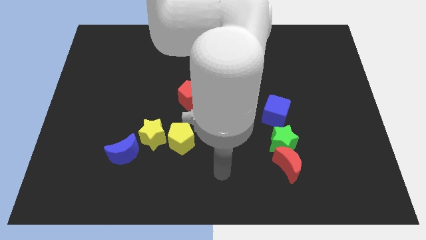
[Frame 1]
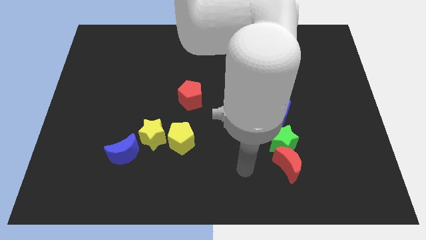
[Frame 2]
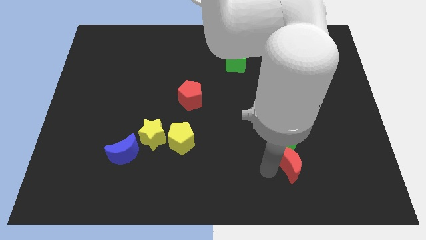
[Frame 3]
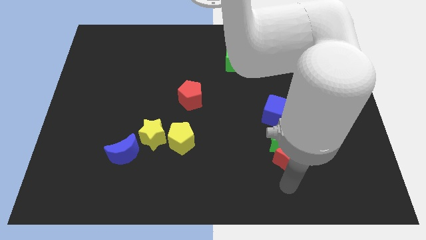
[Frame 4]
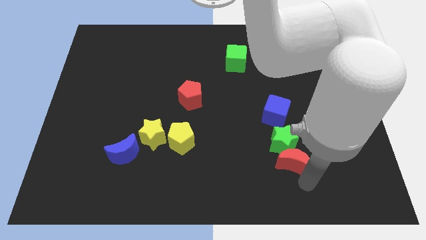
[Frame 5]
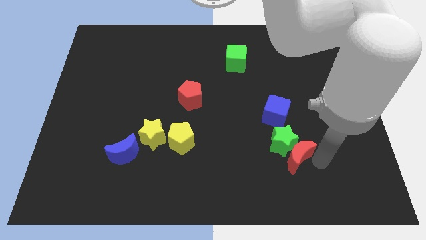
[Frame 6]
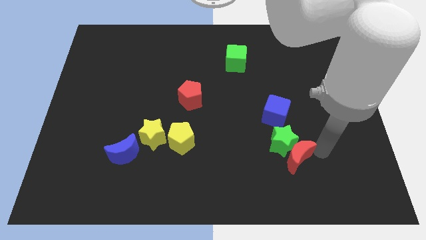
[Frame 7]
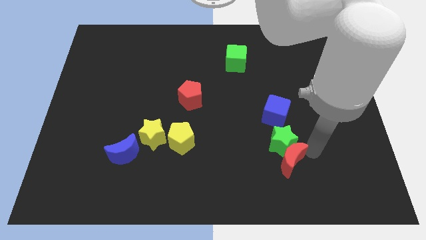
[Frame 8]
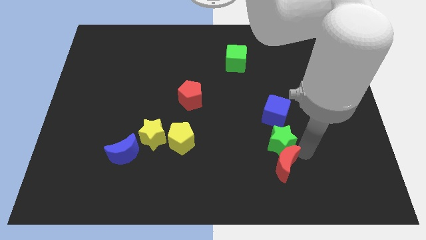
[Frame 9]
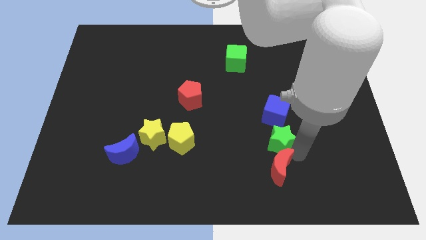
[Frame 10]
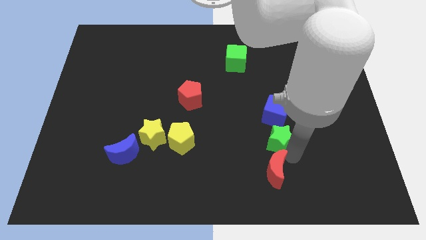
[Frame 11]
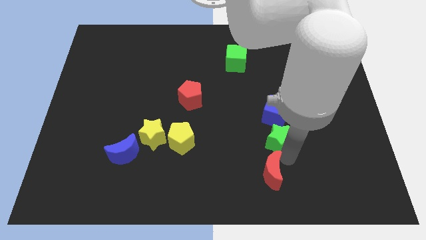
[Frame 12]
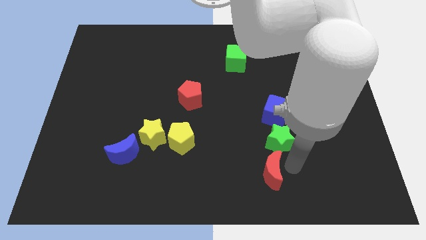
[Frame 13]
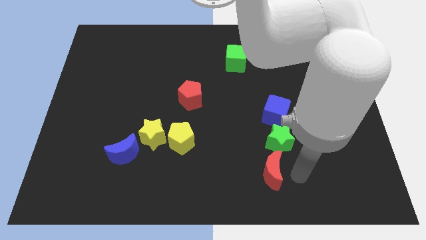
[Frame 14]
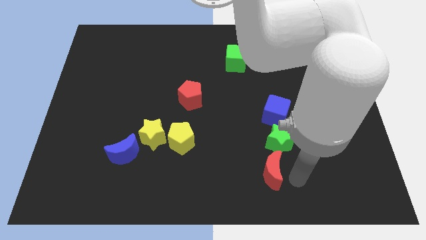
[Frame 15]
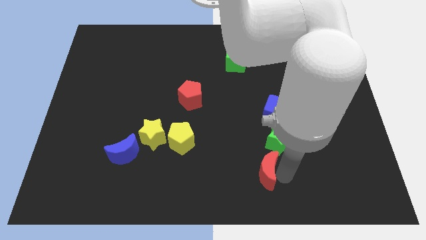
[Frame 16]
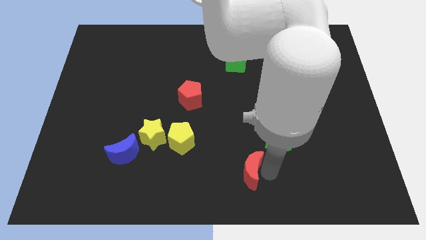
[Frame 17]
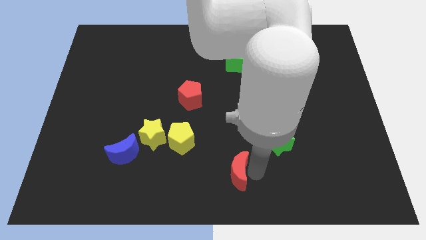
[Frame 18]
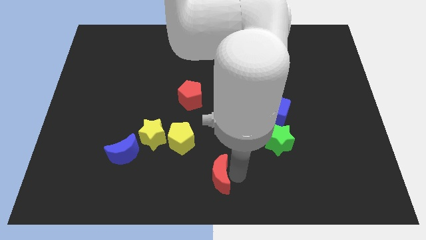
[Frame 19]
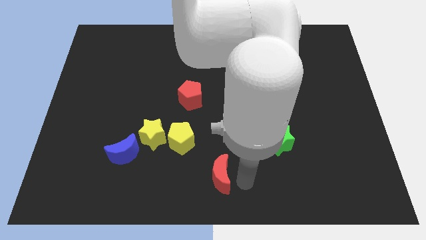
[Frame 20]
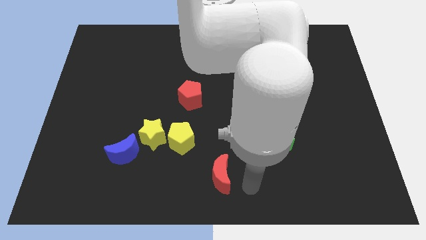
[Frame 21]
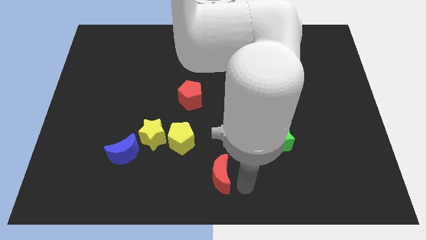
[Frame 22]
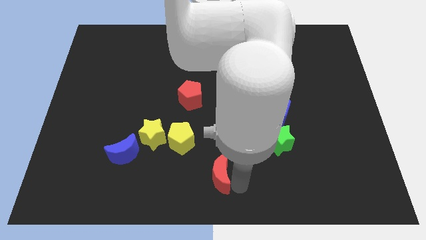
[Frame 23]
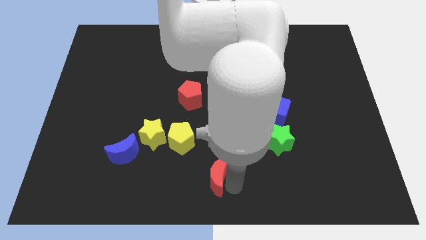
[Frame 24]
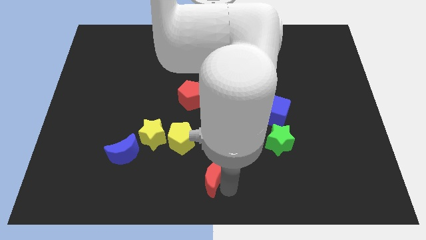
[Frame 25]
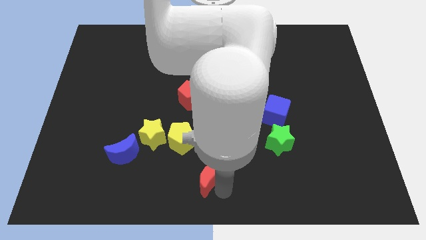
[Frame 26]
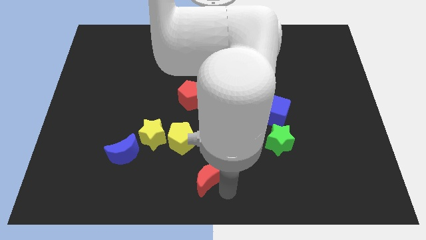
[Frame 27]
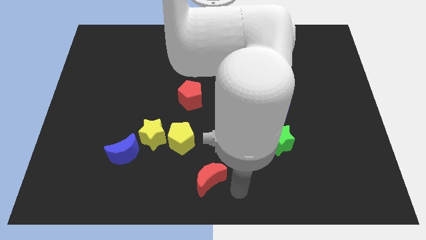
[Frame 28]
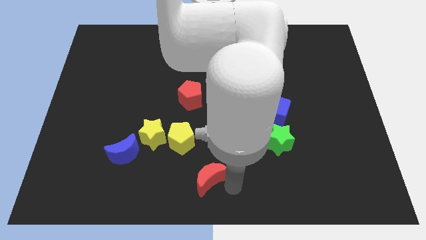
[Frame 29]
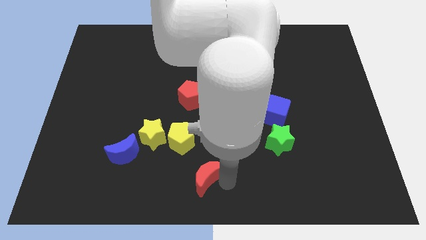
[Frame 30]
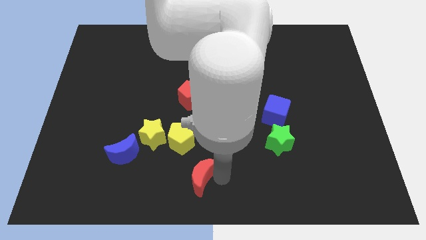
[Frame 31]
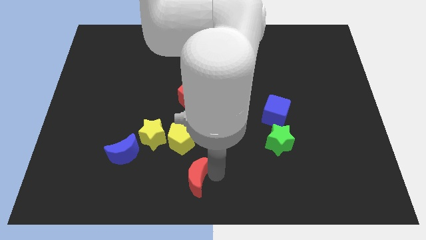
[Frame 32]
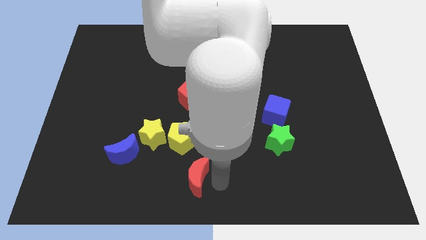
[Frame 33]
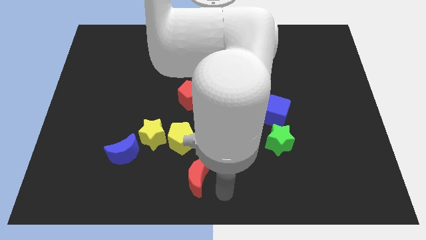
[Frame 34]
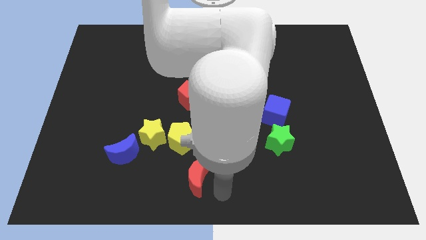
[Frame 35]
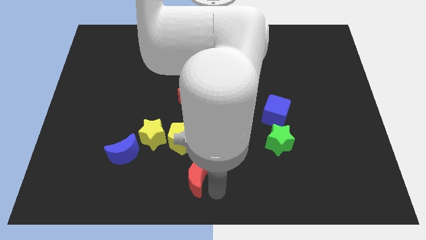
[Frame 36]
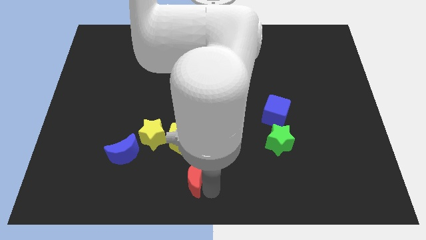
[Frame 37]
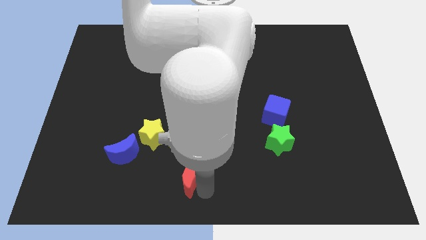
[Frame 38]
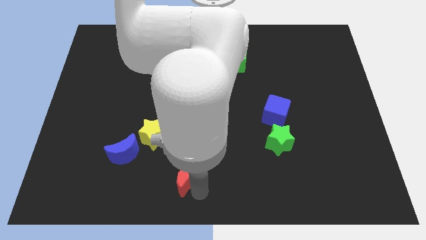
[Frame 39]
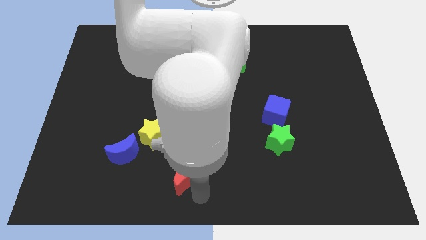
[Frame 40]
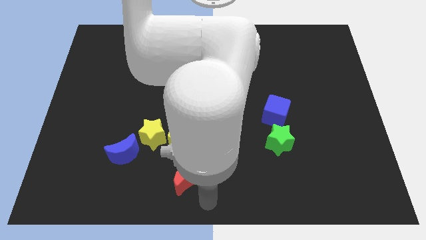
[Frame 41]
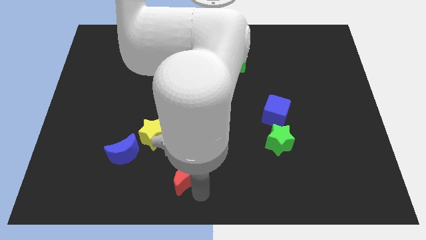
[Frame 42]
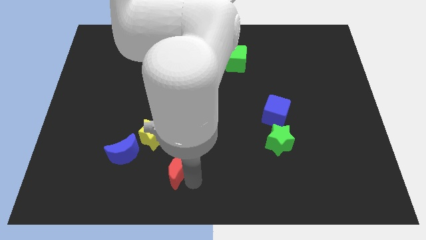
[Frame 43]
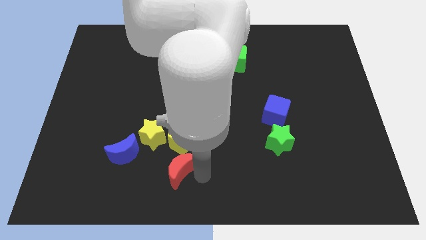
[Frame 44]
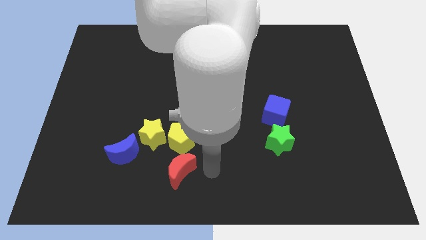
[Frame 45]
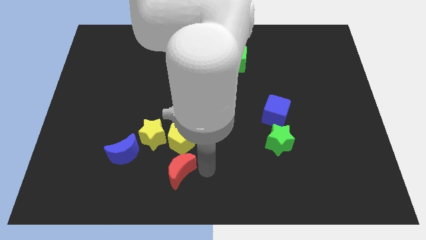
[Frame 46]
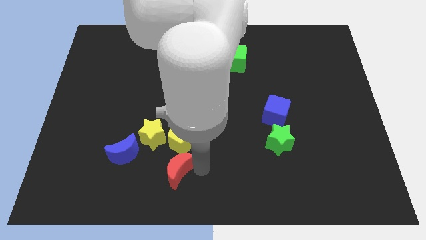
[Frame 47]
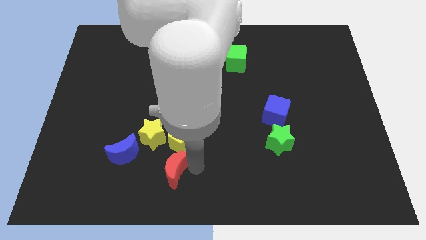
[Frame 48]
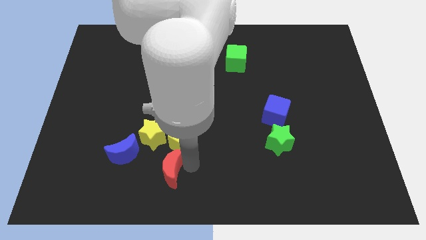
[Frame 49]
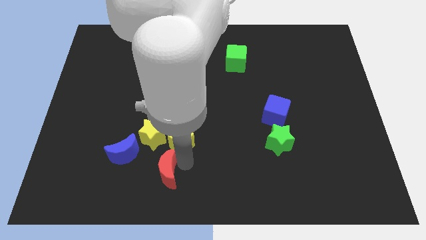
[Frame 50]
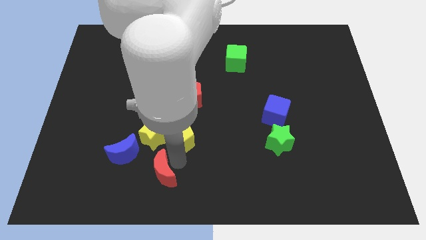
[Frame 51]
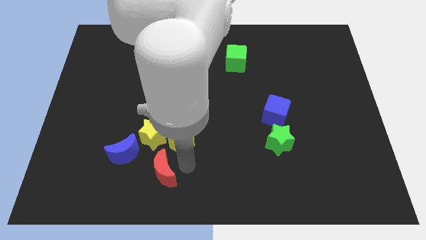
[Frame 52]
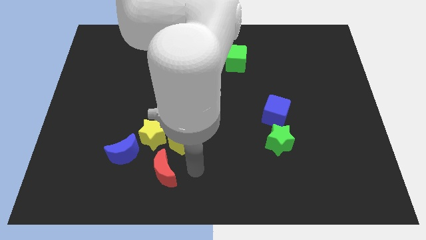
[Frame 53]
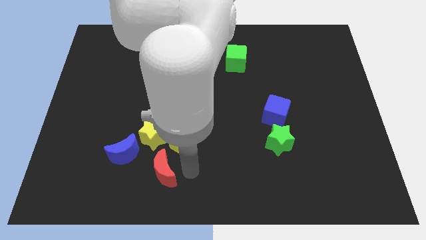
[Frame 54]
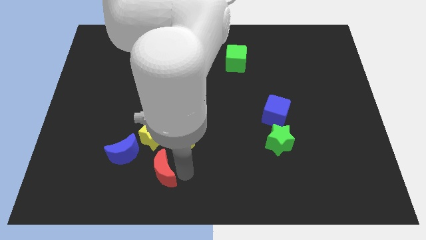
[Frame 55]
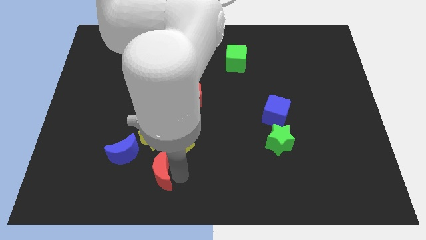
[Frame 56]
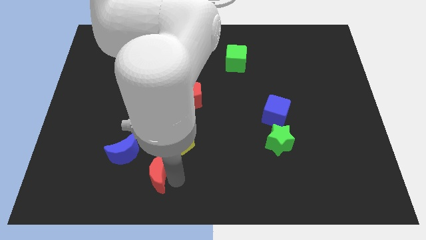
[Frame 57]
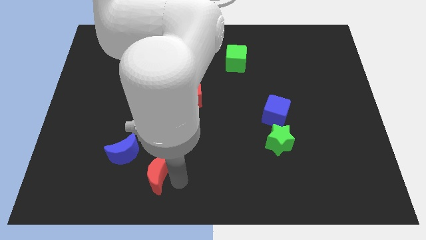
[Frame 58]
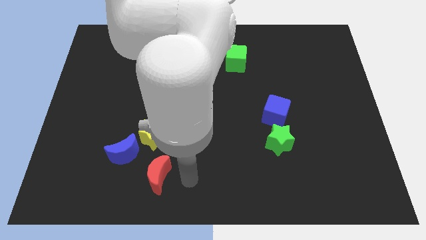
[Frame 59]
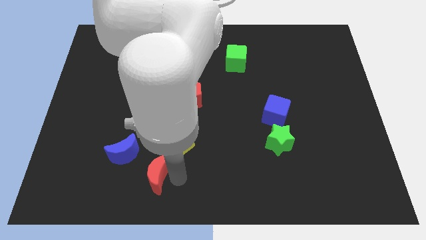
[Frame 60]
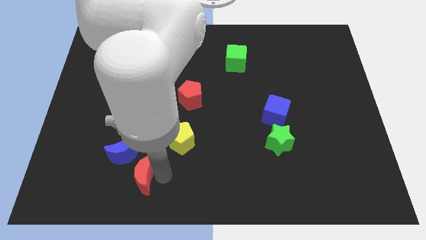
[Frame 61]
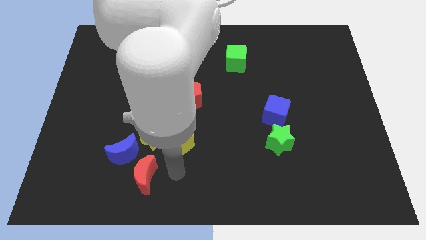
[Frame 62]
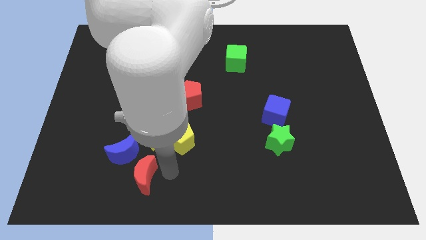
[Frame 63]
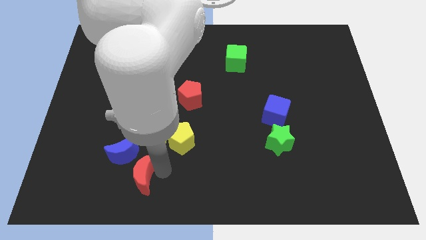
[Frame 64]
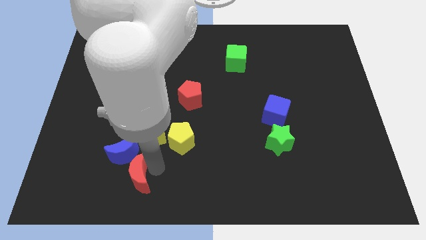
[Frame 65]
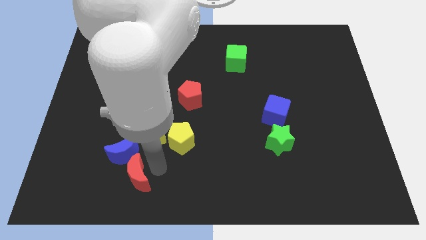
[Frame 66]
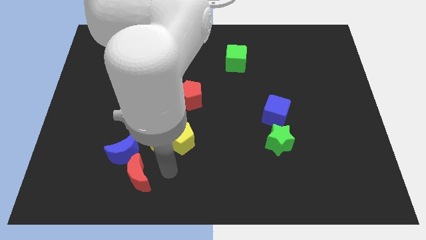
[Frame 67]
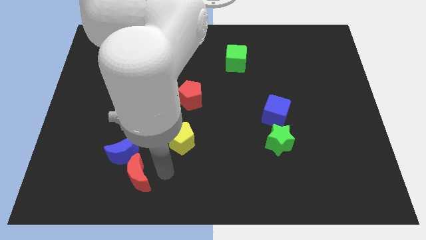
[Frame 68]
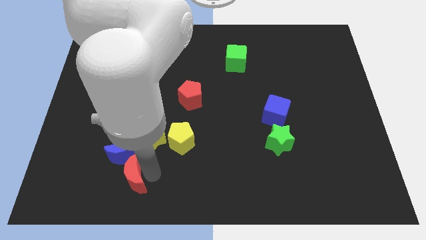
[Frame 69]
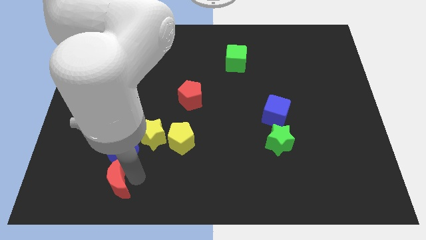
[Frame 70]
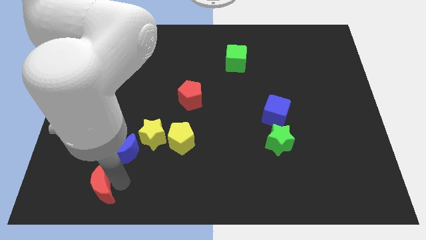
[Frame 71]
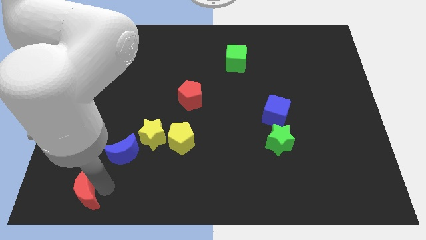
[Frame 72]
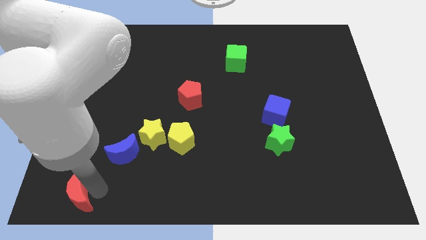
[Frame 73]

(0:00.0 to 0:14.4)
push the red moon to the bottom left of the board
